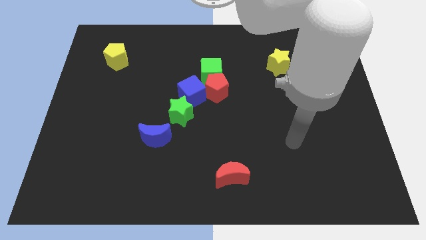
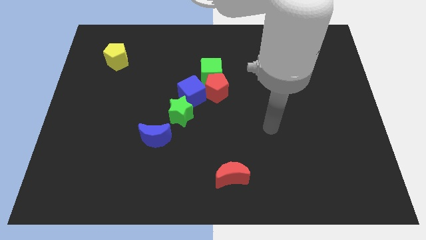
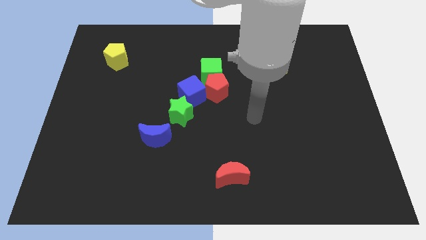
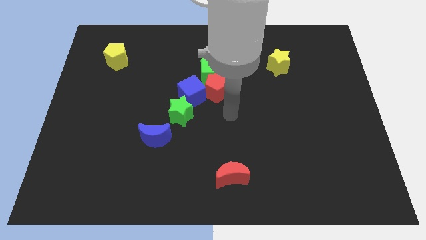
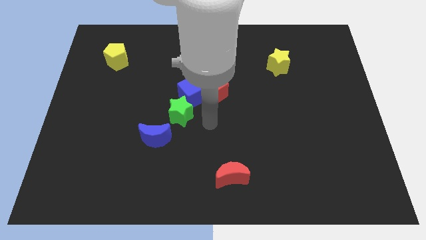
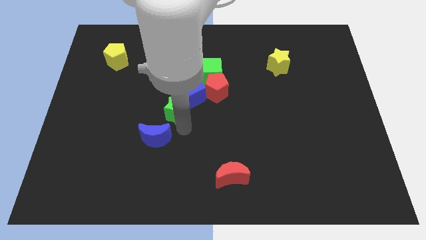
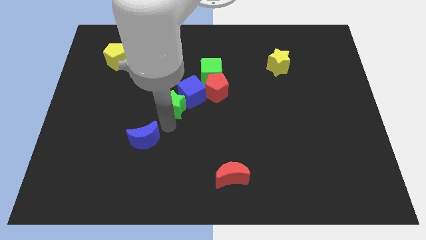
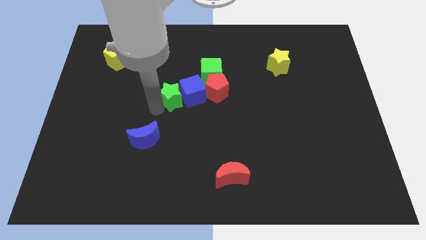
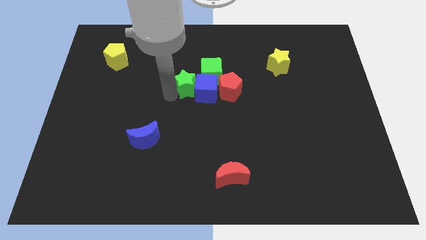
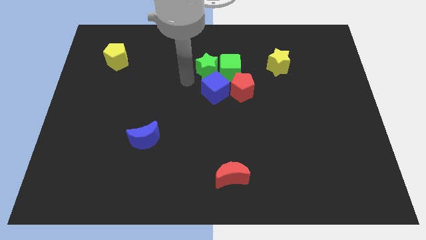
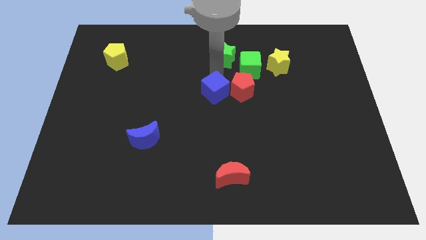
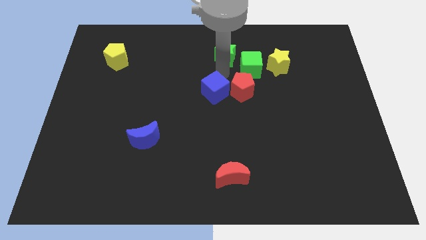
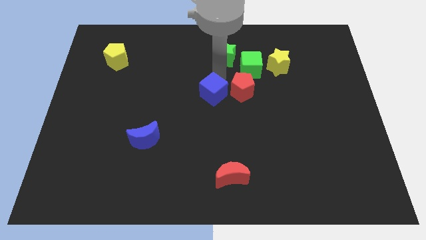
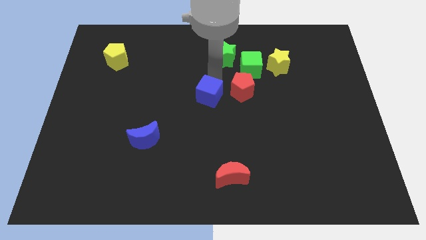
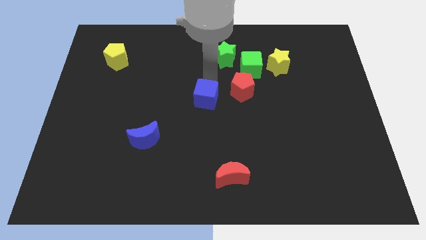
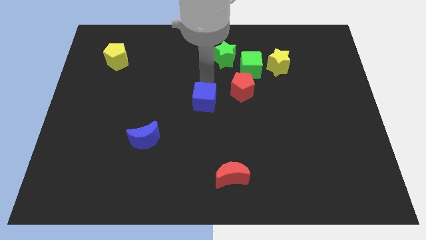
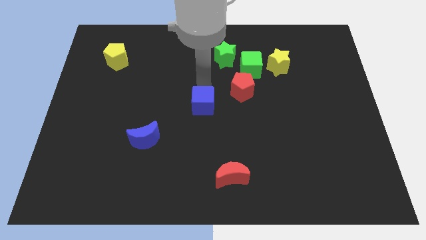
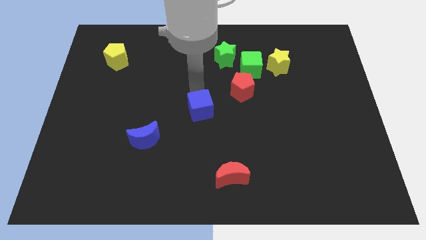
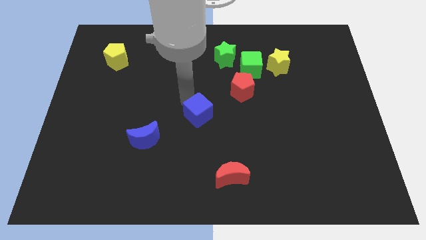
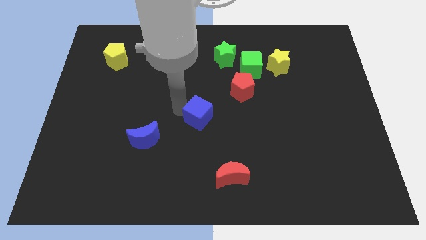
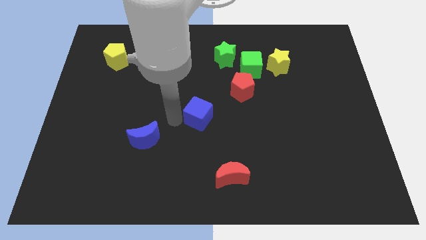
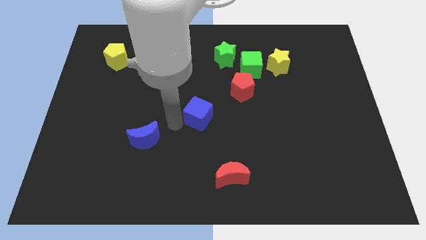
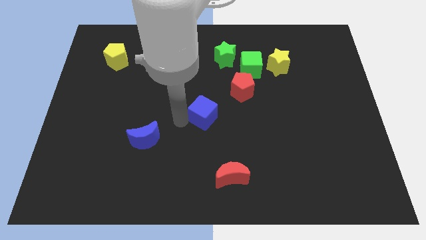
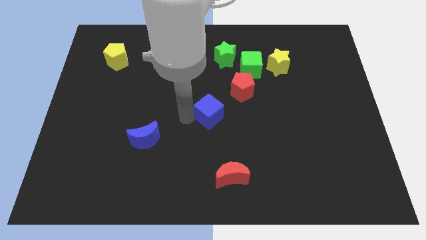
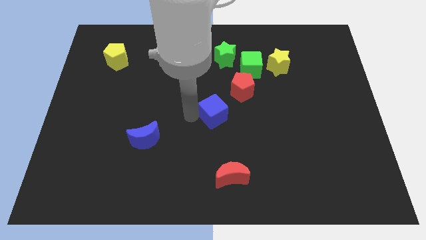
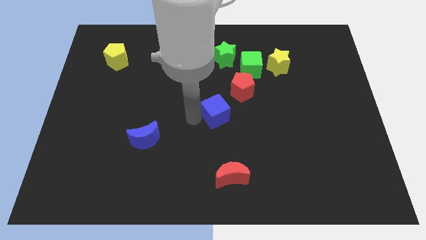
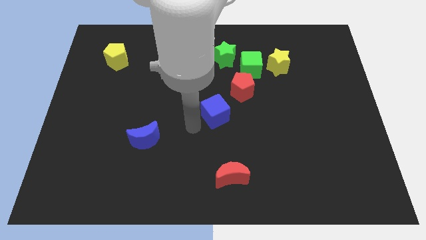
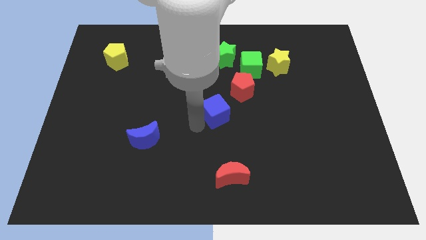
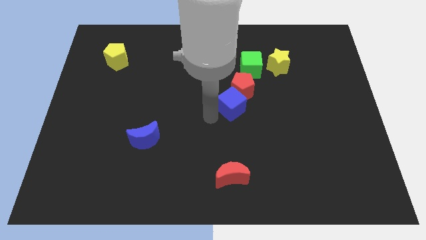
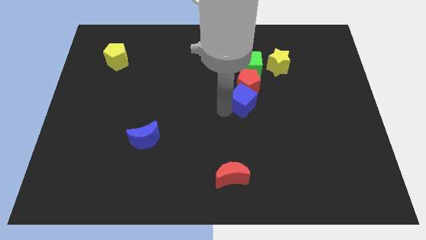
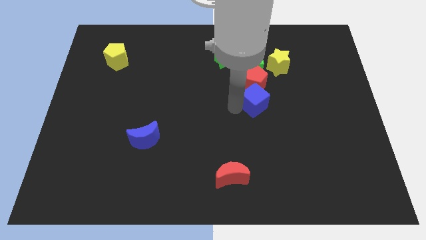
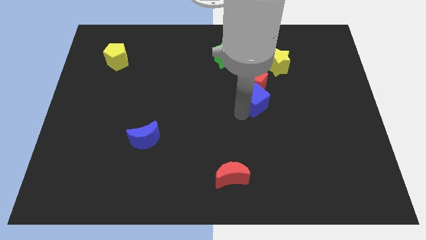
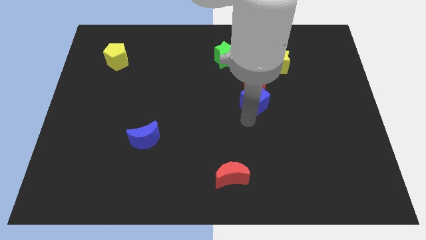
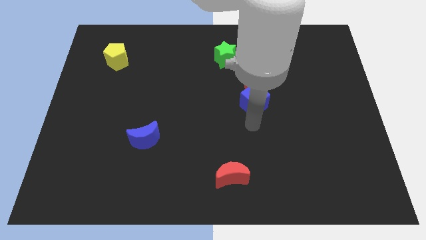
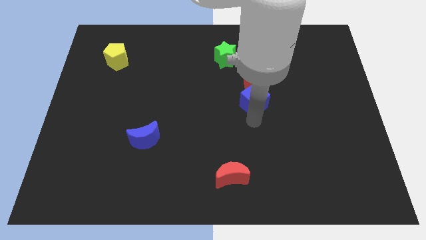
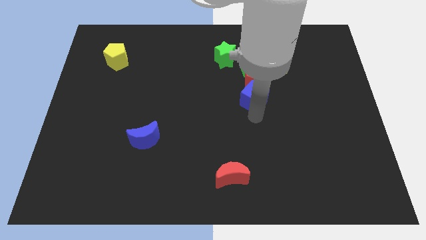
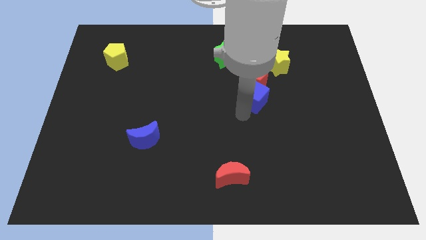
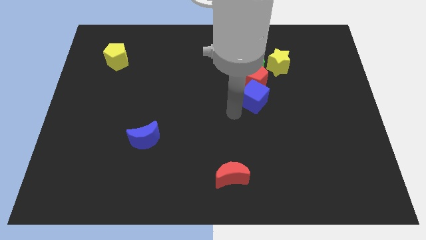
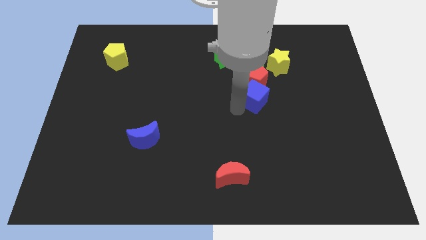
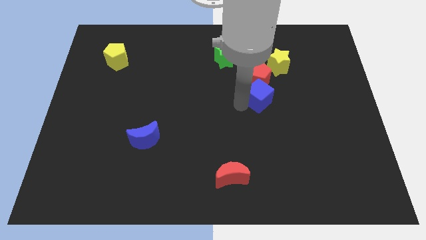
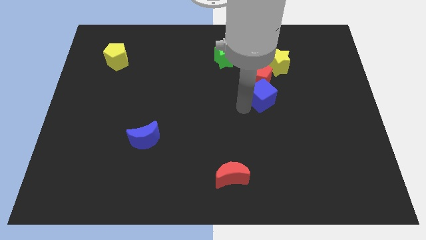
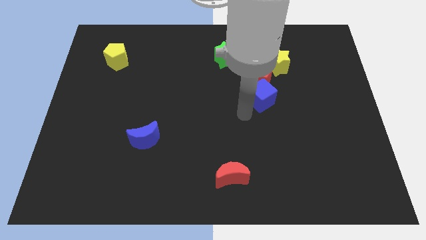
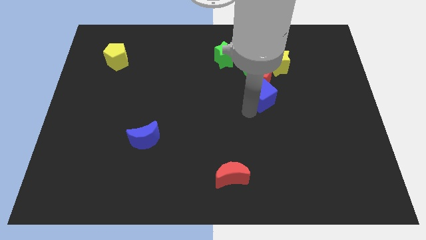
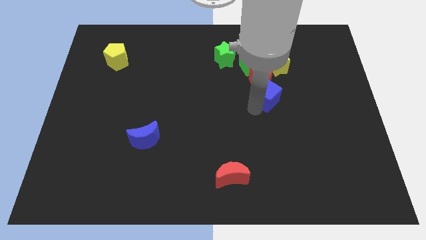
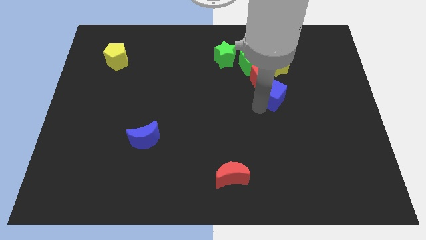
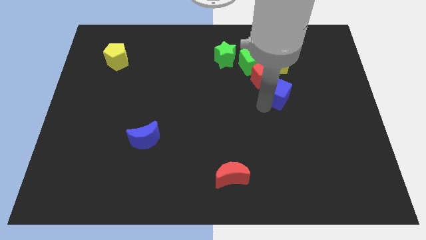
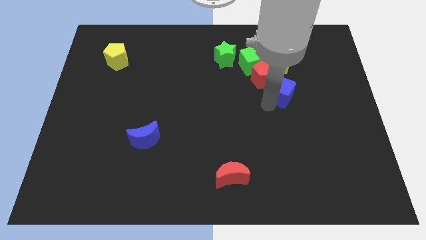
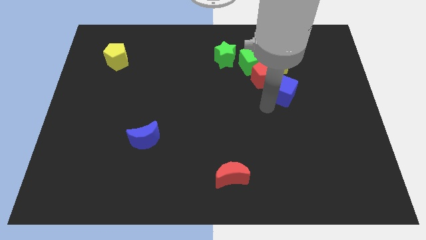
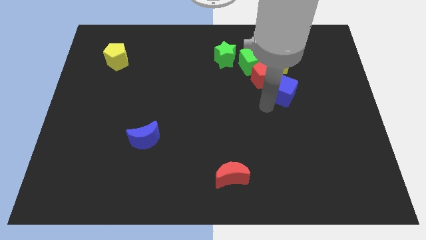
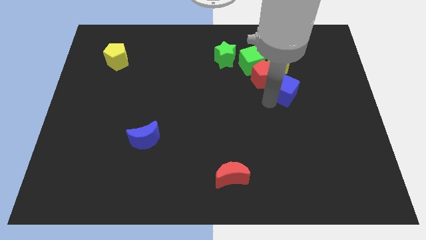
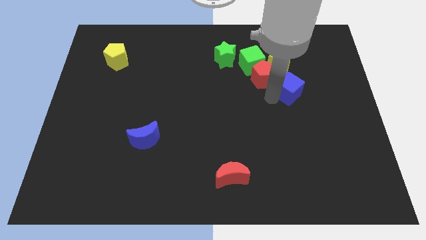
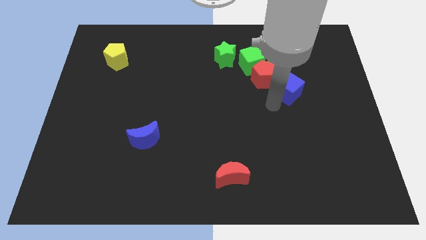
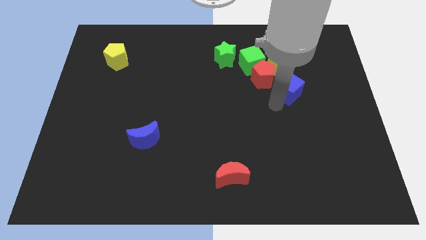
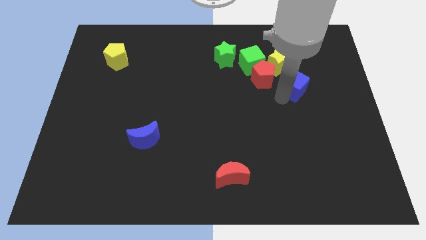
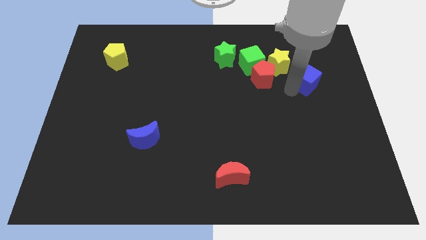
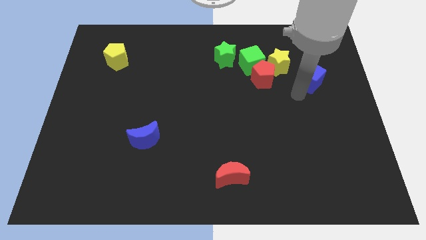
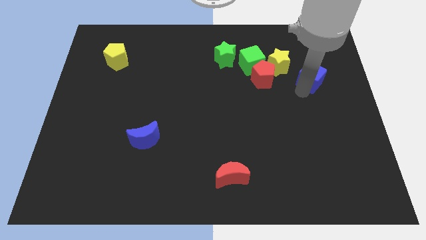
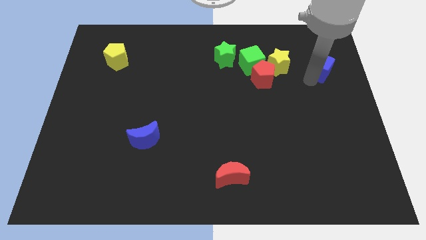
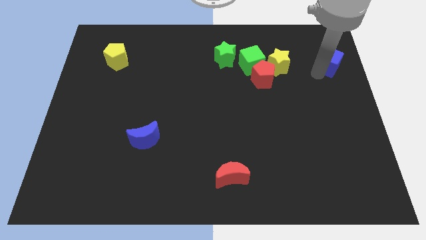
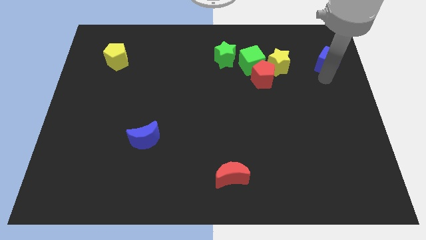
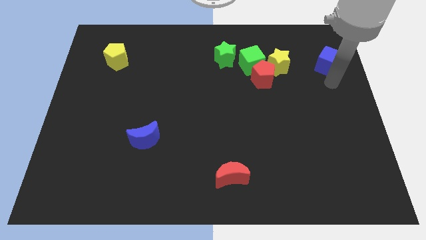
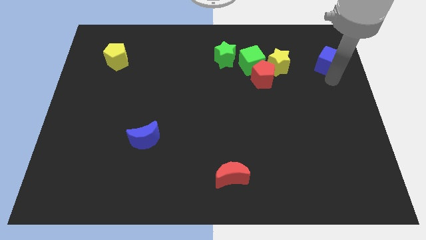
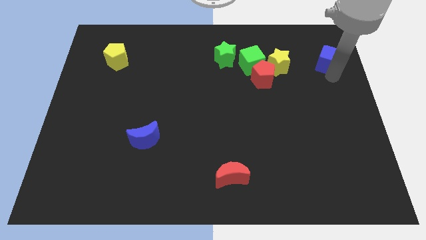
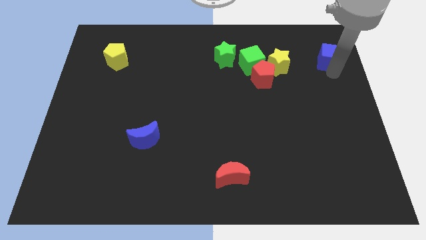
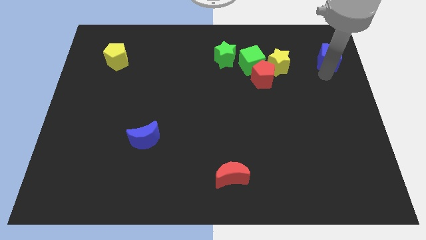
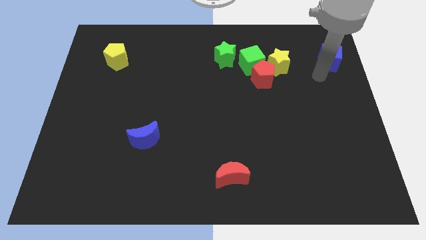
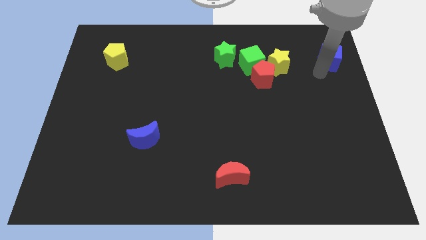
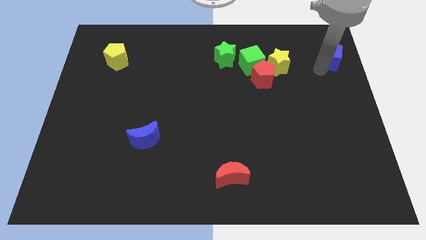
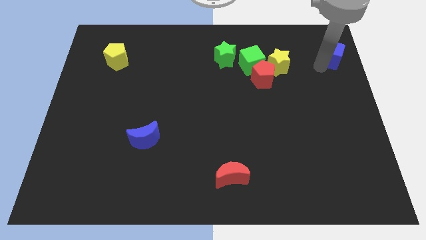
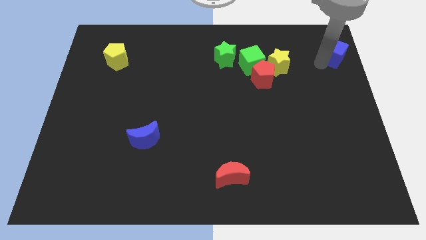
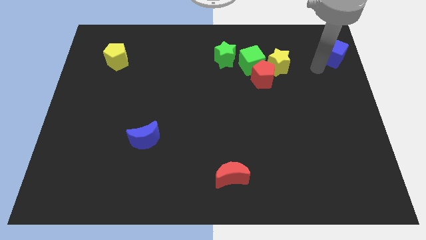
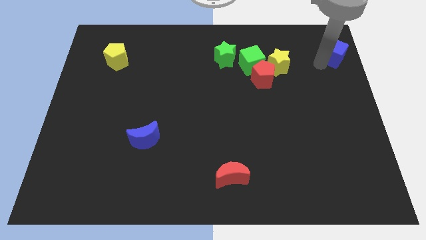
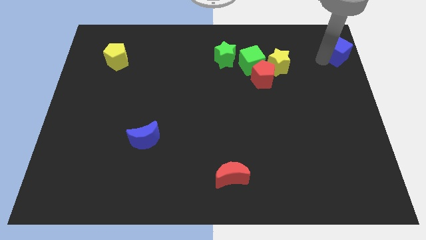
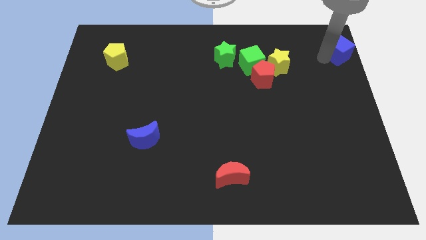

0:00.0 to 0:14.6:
slide the blue cube to the upper right corner
